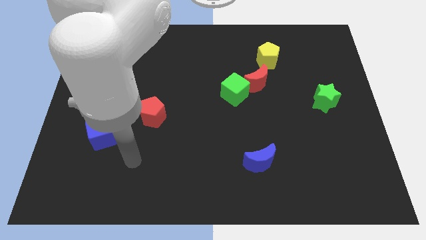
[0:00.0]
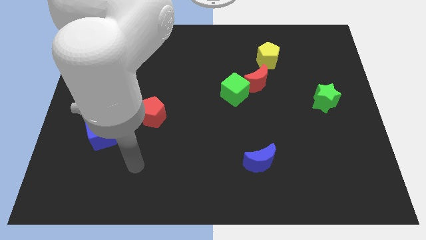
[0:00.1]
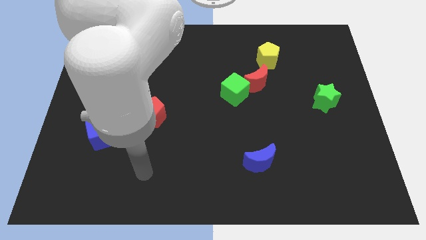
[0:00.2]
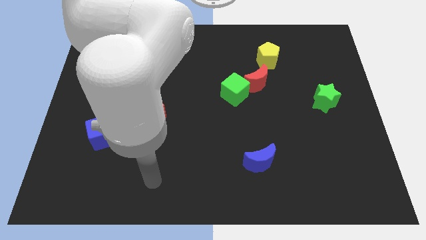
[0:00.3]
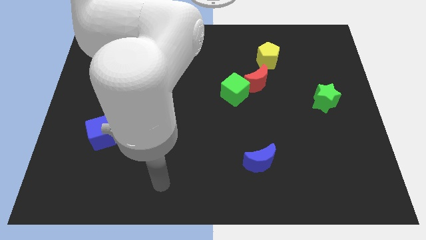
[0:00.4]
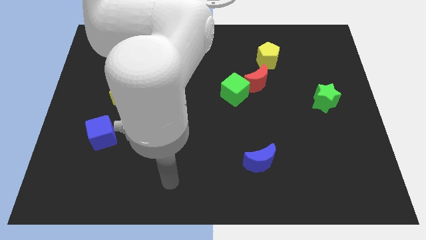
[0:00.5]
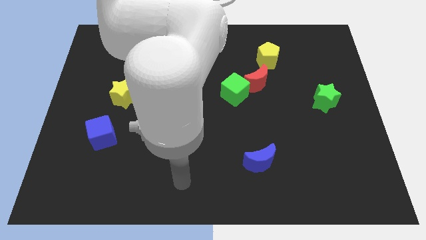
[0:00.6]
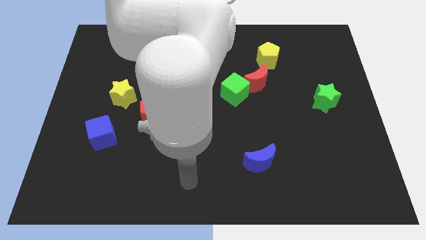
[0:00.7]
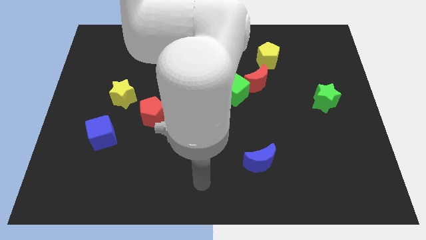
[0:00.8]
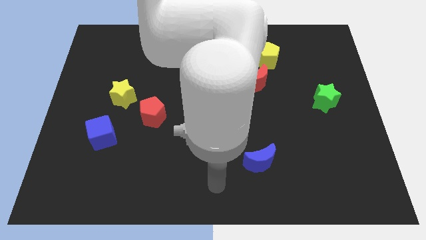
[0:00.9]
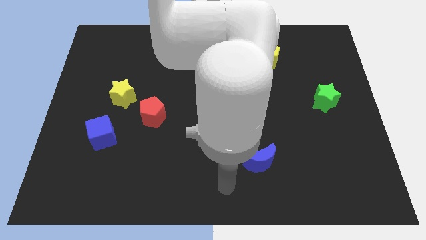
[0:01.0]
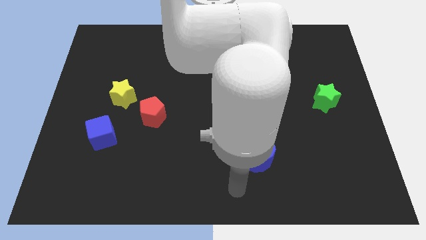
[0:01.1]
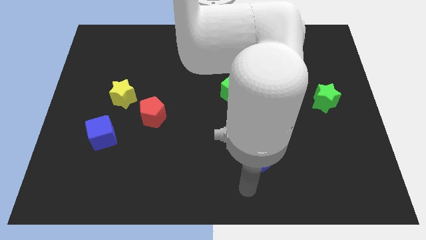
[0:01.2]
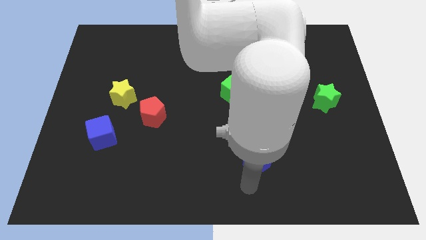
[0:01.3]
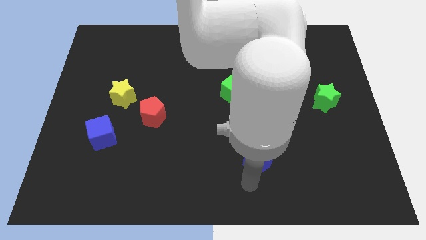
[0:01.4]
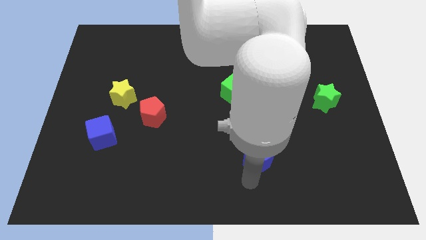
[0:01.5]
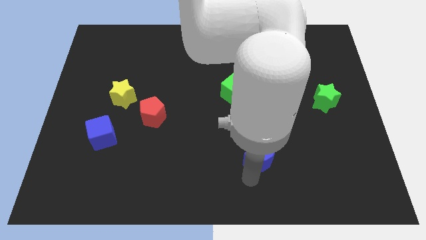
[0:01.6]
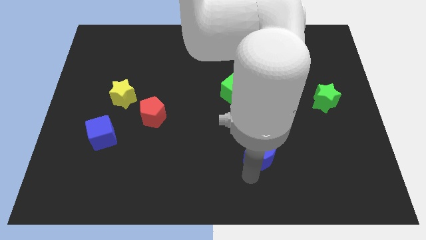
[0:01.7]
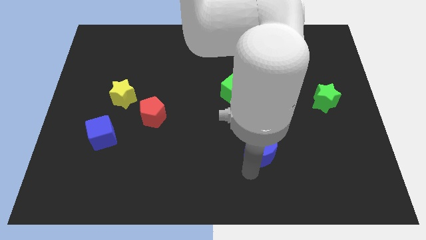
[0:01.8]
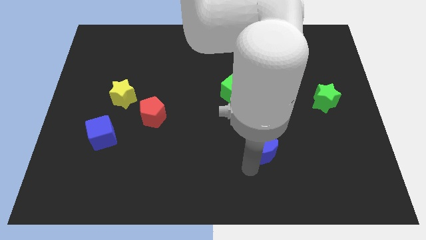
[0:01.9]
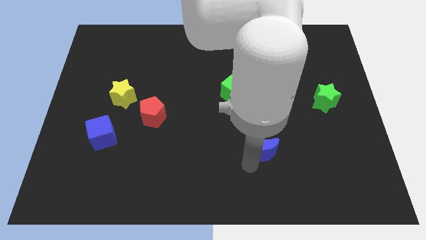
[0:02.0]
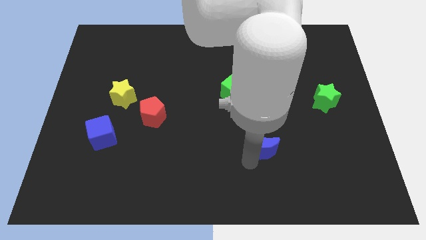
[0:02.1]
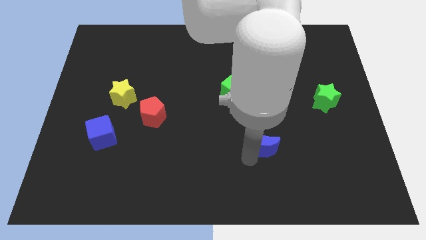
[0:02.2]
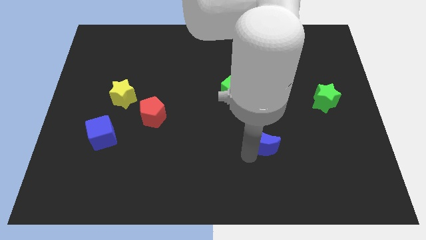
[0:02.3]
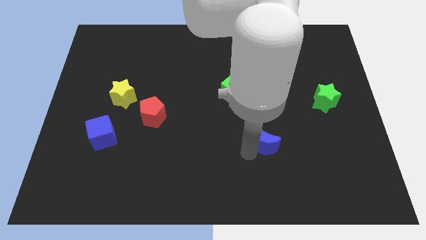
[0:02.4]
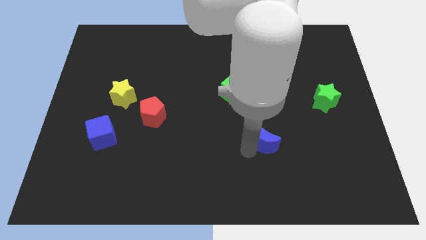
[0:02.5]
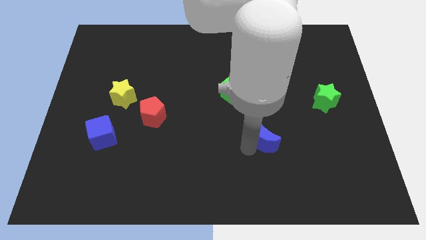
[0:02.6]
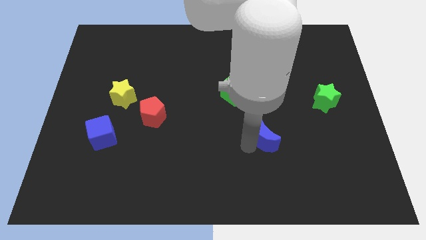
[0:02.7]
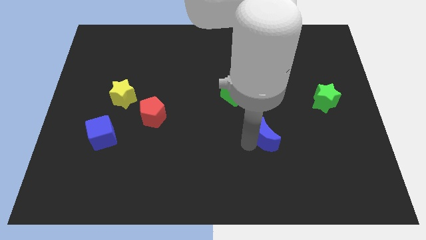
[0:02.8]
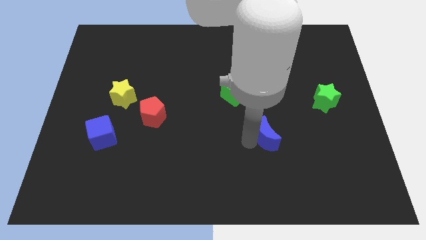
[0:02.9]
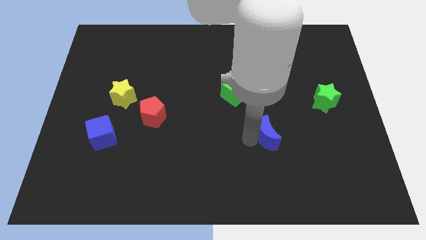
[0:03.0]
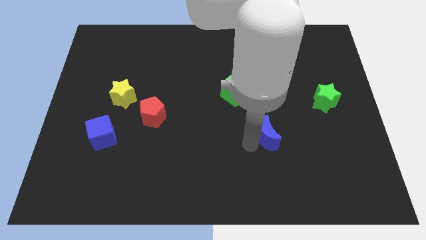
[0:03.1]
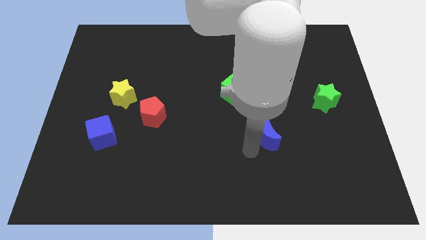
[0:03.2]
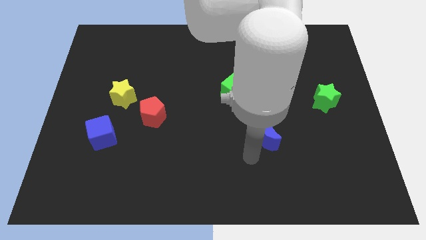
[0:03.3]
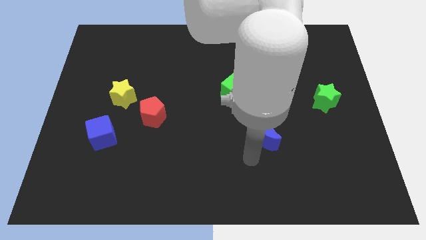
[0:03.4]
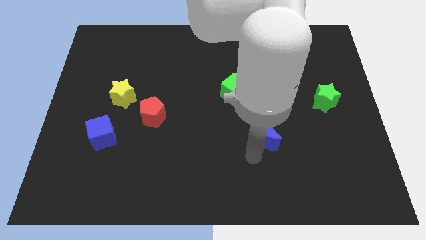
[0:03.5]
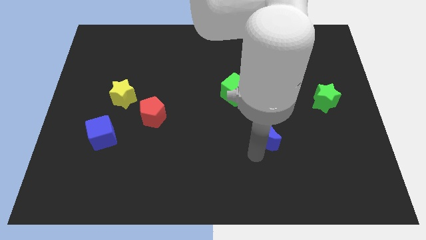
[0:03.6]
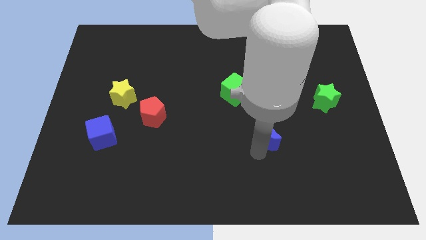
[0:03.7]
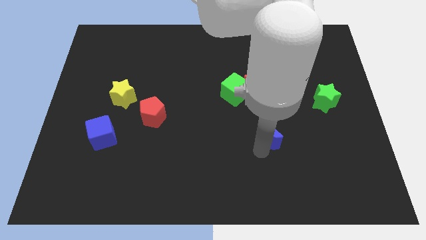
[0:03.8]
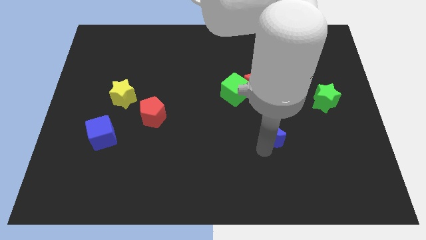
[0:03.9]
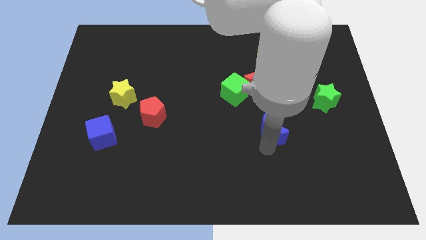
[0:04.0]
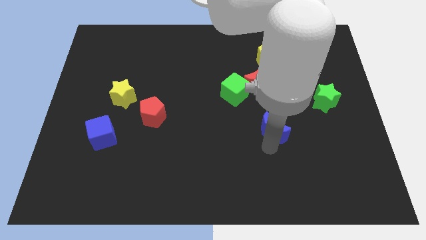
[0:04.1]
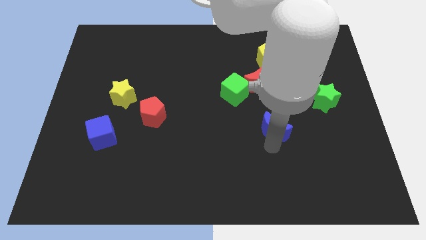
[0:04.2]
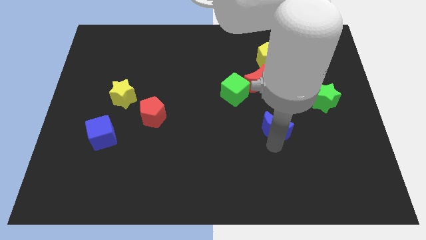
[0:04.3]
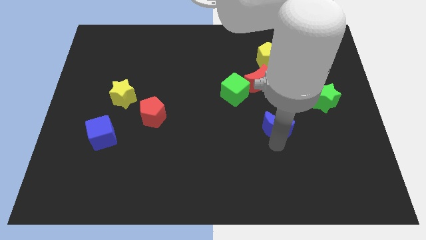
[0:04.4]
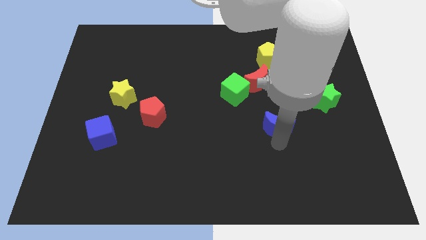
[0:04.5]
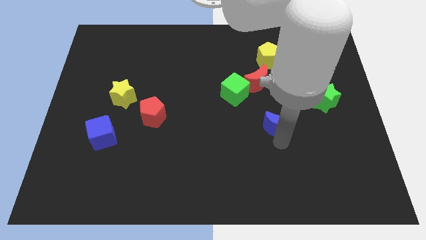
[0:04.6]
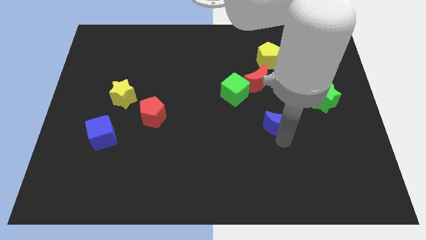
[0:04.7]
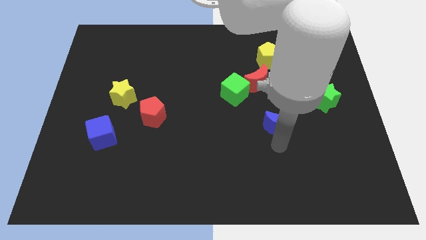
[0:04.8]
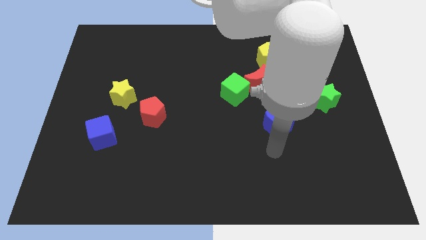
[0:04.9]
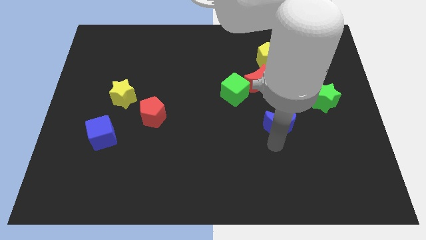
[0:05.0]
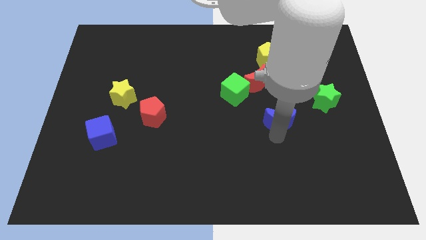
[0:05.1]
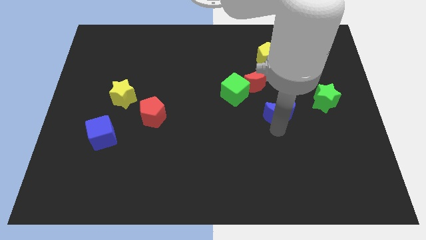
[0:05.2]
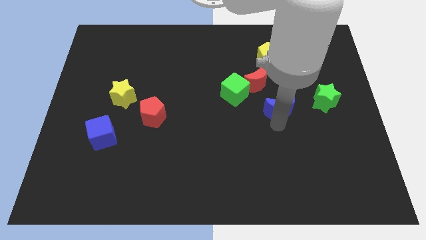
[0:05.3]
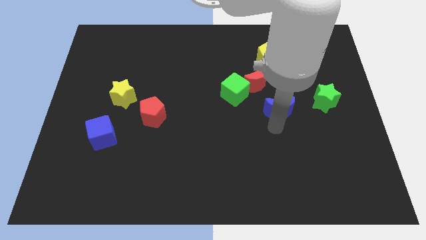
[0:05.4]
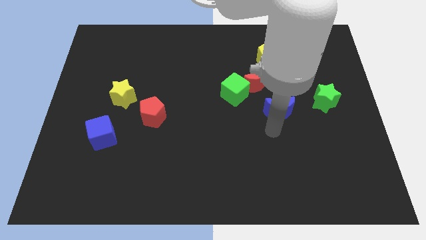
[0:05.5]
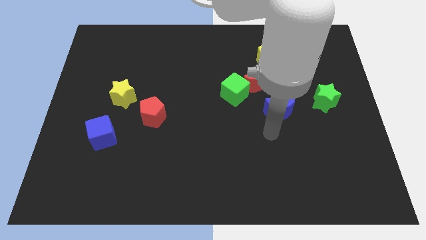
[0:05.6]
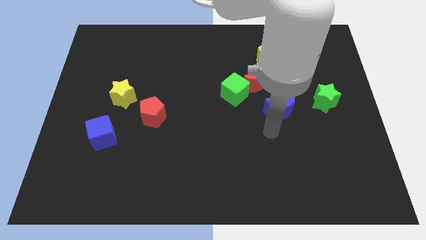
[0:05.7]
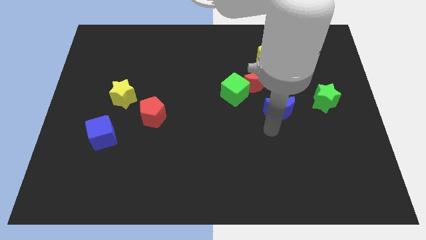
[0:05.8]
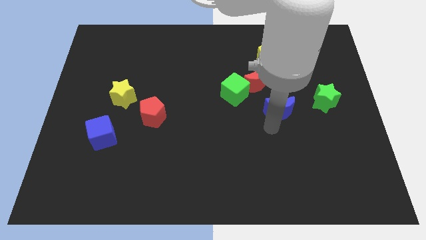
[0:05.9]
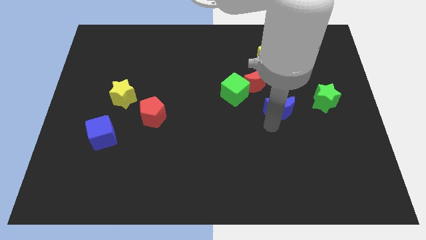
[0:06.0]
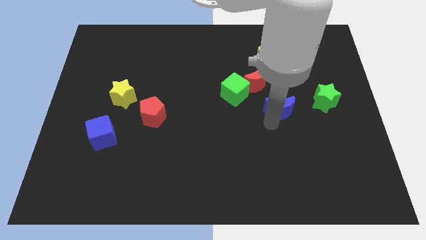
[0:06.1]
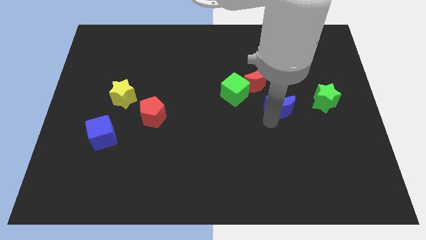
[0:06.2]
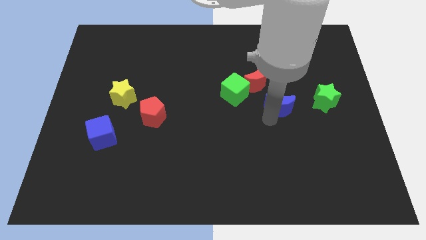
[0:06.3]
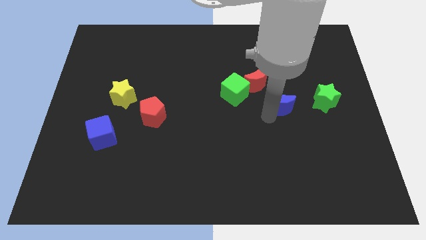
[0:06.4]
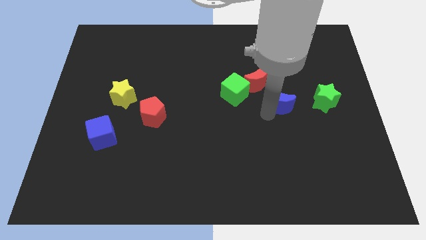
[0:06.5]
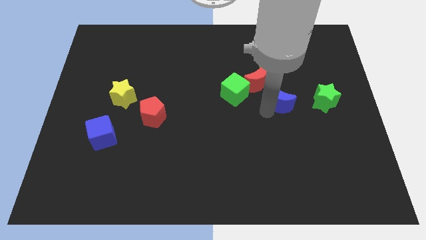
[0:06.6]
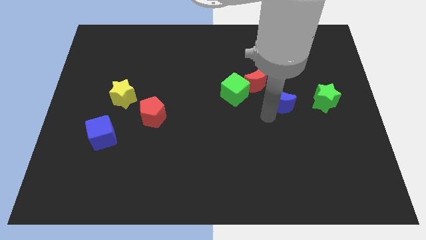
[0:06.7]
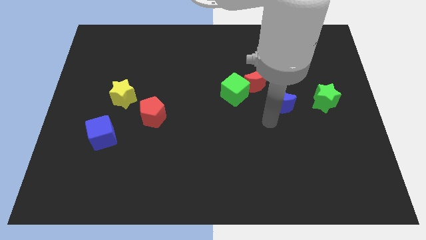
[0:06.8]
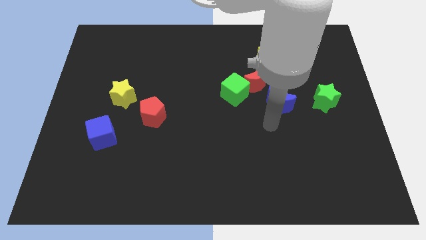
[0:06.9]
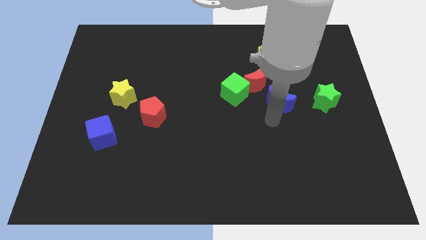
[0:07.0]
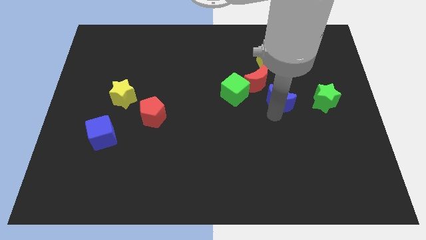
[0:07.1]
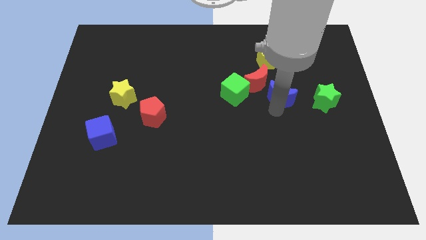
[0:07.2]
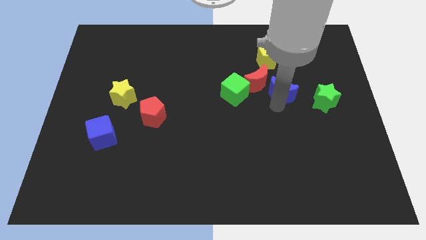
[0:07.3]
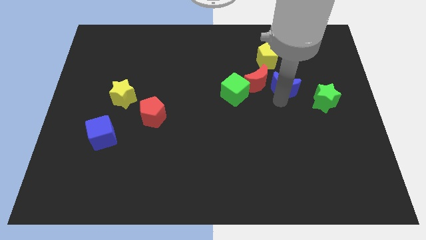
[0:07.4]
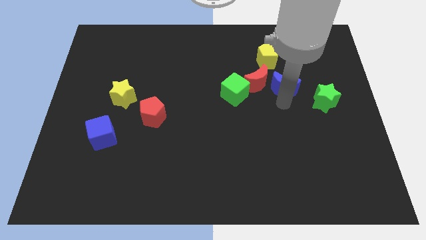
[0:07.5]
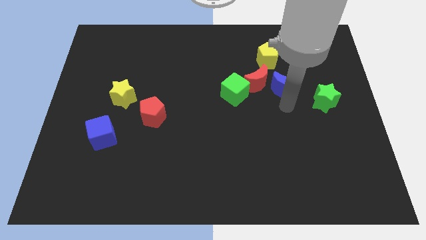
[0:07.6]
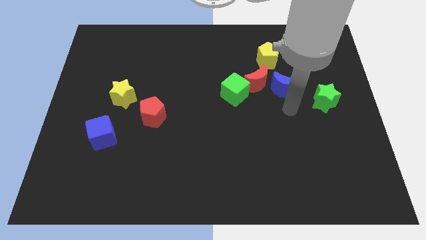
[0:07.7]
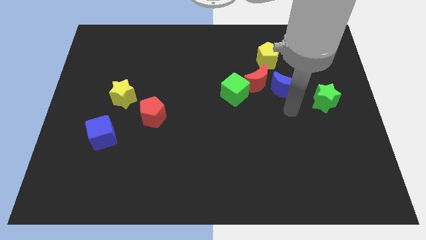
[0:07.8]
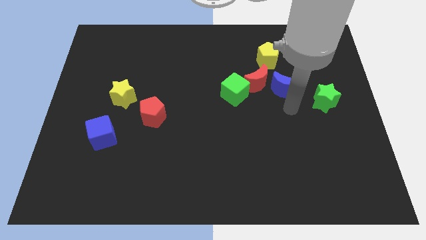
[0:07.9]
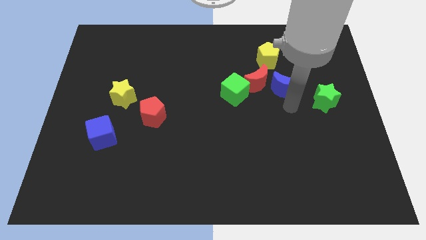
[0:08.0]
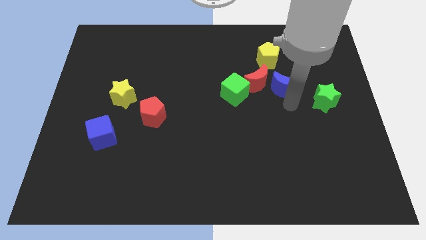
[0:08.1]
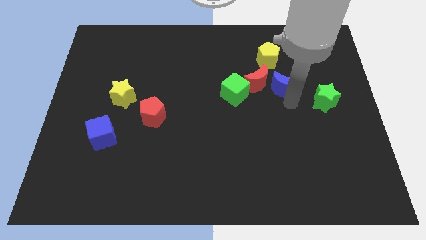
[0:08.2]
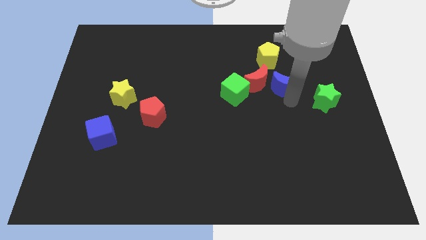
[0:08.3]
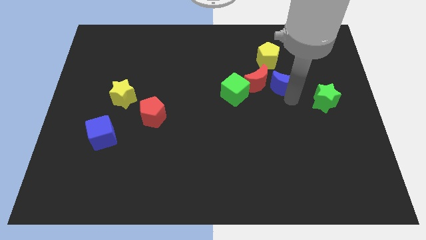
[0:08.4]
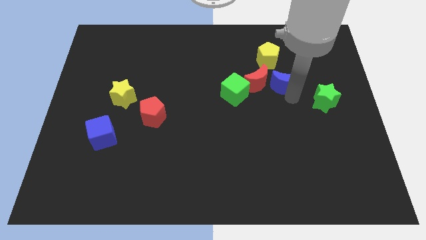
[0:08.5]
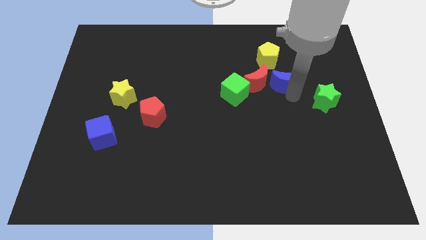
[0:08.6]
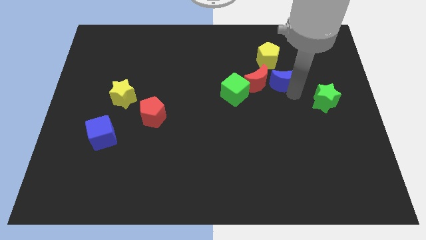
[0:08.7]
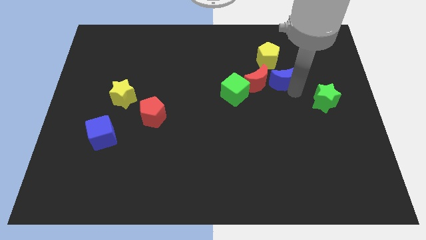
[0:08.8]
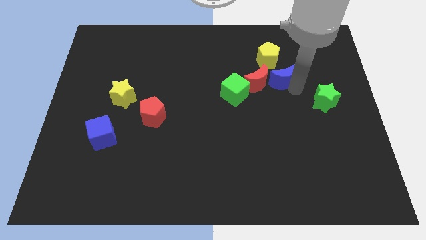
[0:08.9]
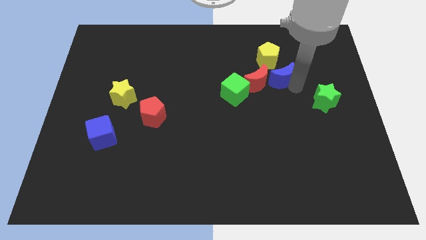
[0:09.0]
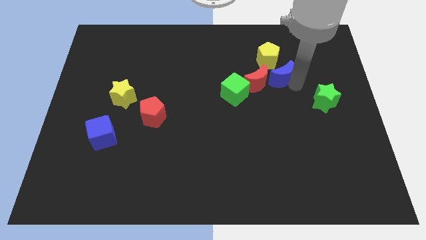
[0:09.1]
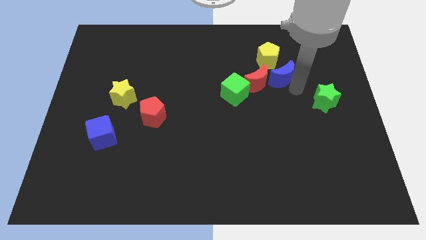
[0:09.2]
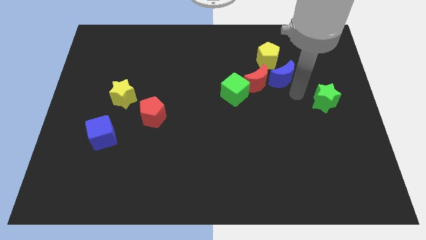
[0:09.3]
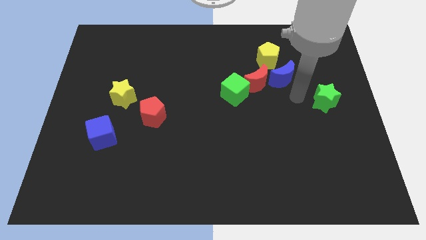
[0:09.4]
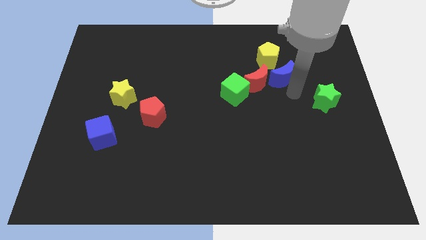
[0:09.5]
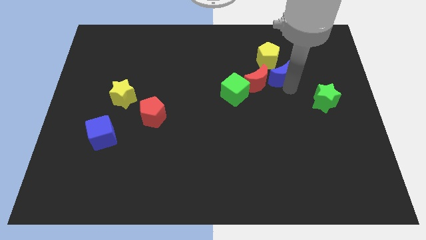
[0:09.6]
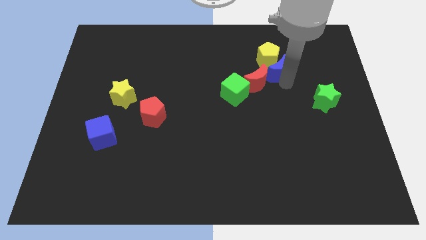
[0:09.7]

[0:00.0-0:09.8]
move the blue moon to the yellow pentagon
